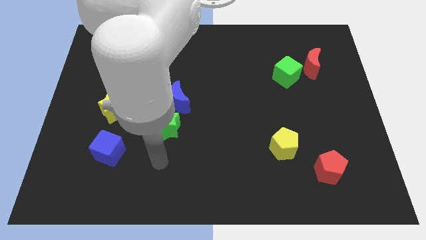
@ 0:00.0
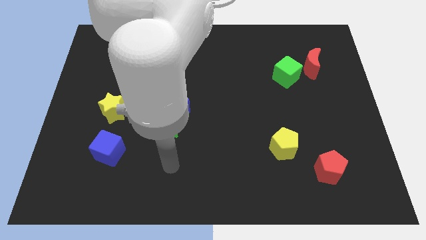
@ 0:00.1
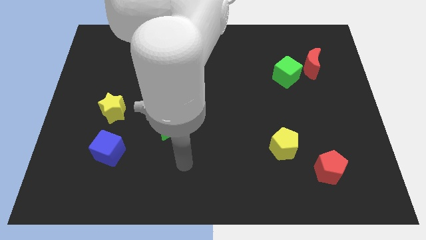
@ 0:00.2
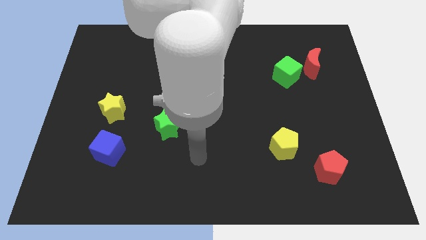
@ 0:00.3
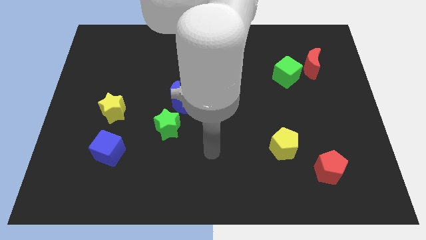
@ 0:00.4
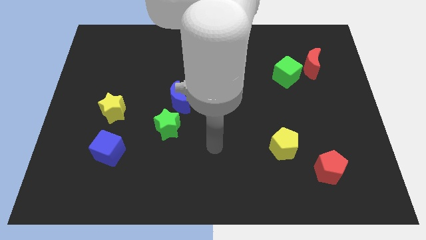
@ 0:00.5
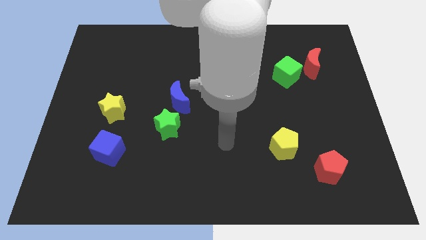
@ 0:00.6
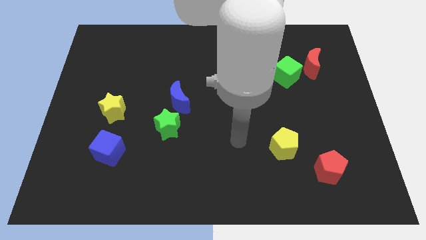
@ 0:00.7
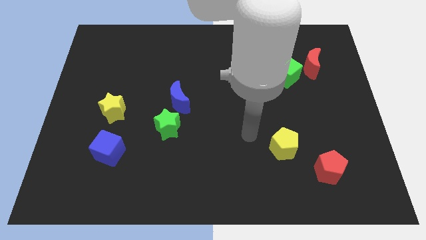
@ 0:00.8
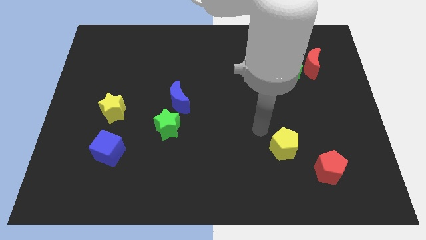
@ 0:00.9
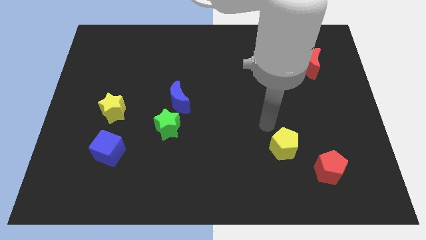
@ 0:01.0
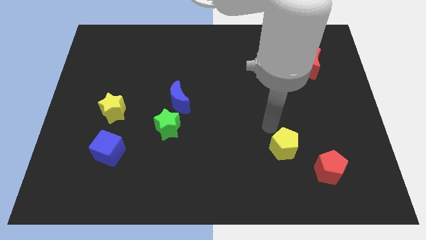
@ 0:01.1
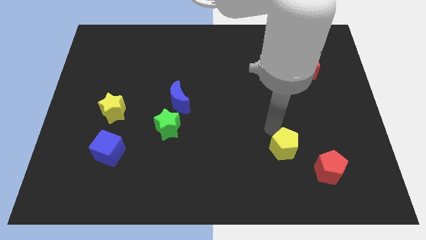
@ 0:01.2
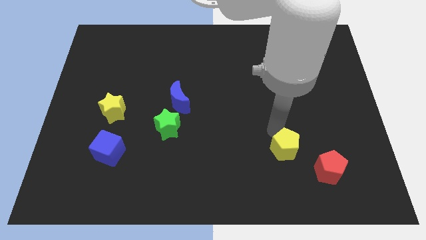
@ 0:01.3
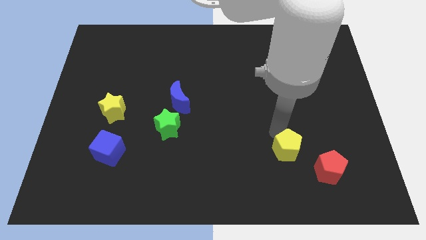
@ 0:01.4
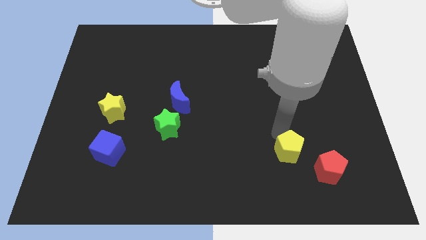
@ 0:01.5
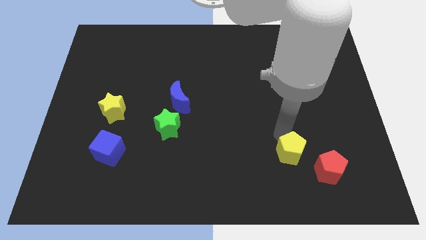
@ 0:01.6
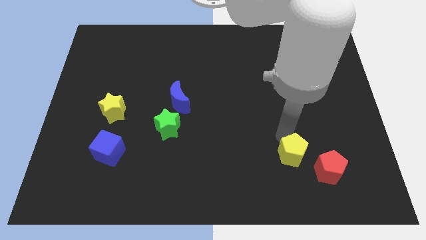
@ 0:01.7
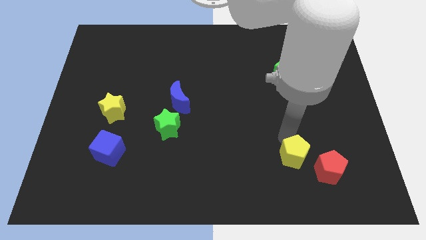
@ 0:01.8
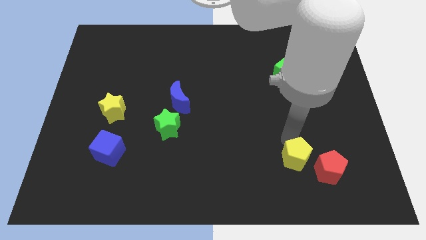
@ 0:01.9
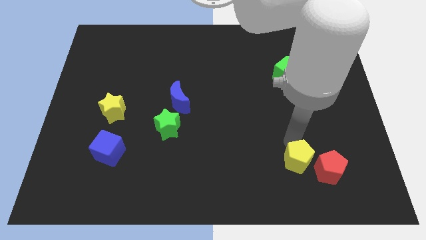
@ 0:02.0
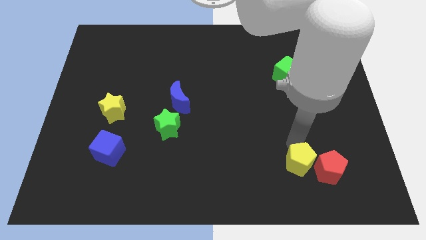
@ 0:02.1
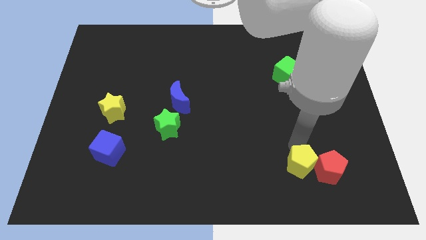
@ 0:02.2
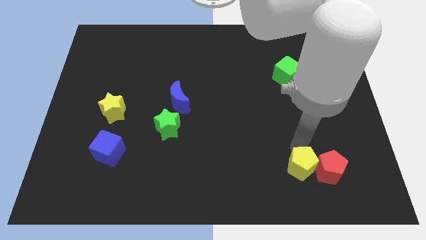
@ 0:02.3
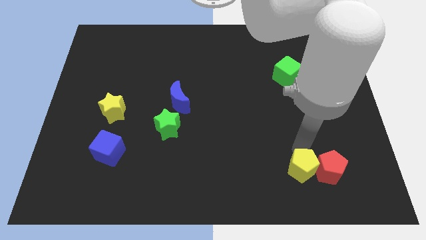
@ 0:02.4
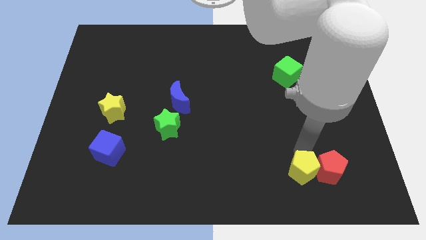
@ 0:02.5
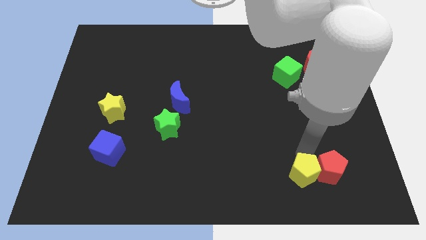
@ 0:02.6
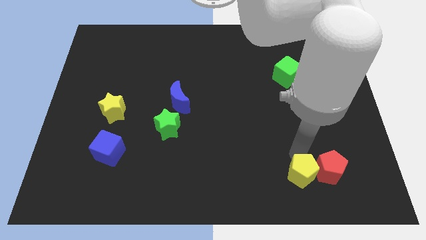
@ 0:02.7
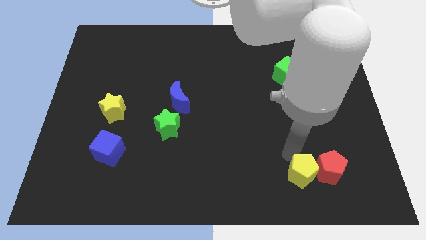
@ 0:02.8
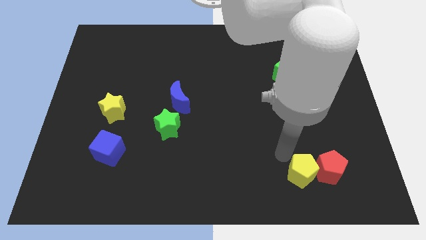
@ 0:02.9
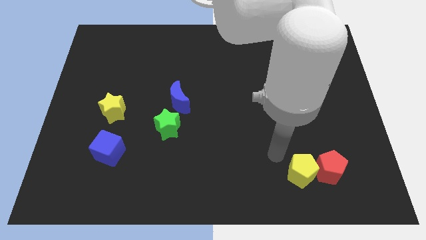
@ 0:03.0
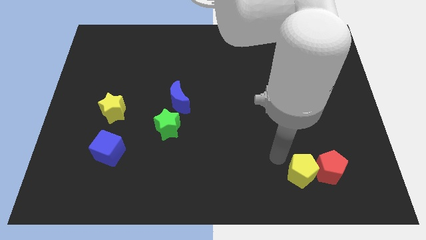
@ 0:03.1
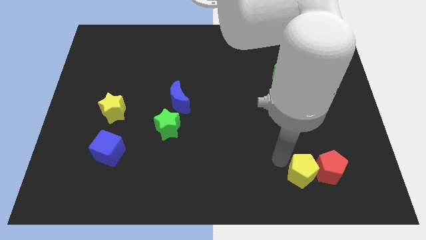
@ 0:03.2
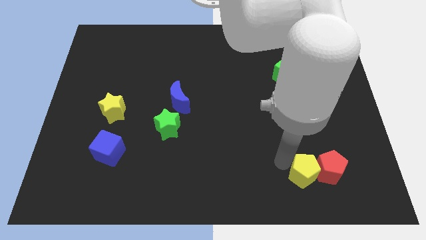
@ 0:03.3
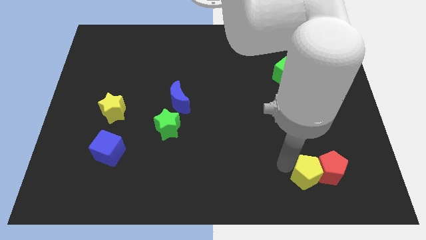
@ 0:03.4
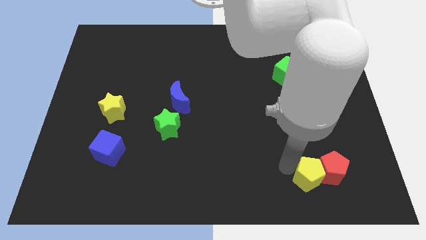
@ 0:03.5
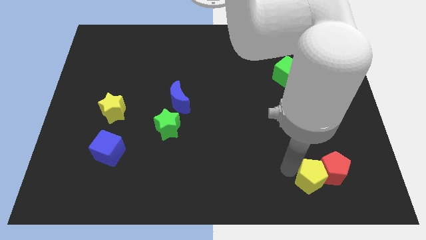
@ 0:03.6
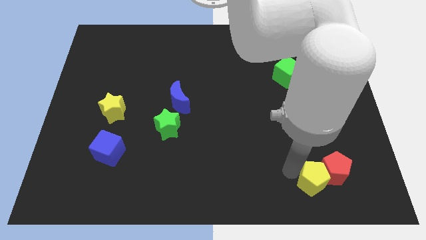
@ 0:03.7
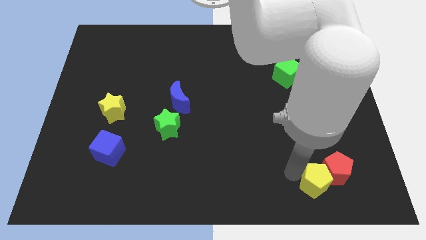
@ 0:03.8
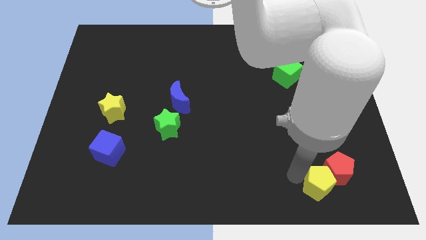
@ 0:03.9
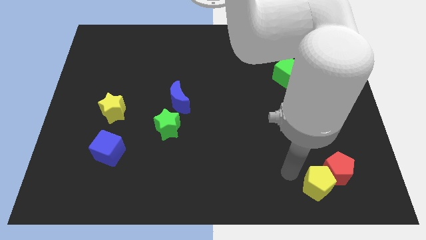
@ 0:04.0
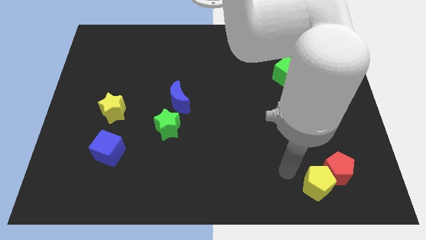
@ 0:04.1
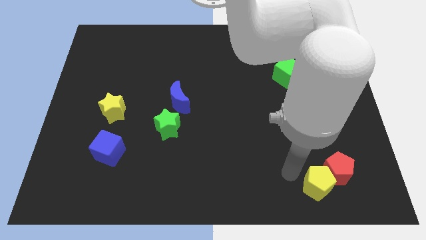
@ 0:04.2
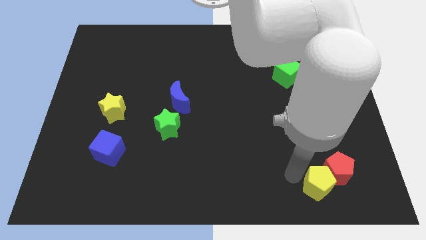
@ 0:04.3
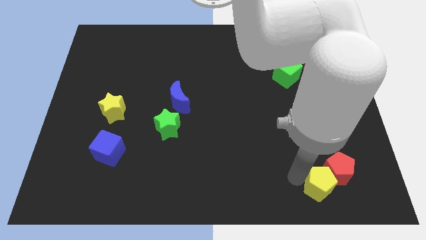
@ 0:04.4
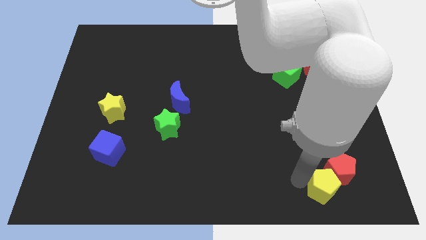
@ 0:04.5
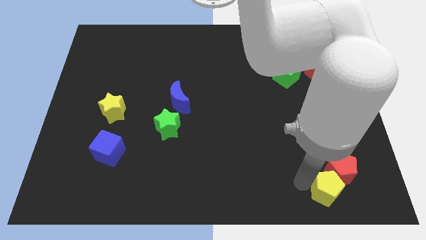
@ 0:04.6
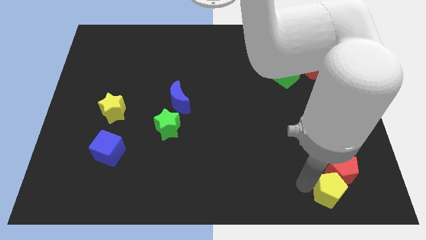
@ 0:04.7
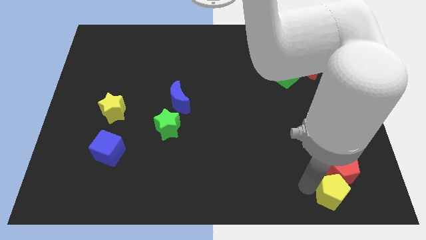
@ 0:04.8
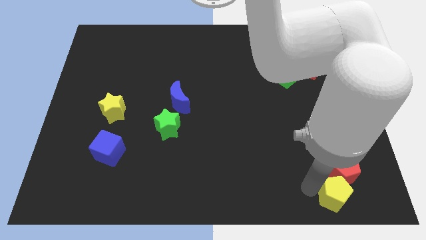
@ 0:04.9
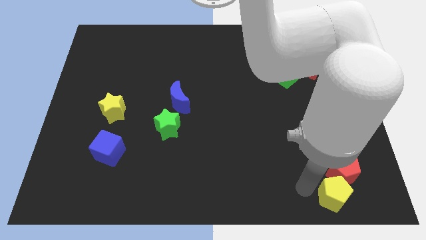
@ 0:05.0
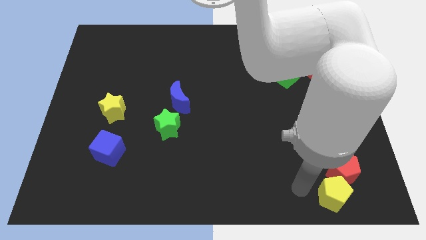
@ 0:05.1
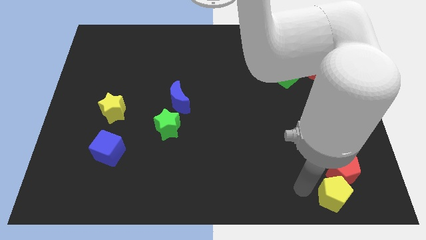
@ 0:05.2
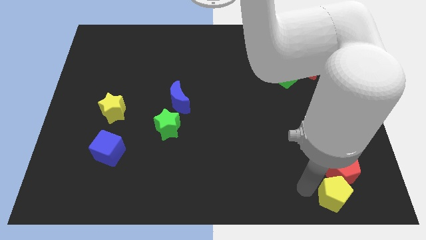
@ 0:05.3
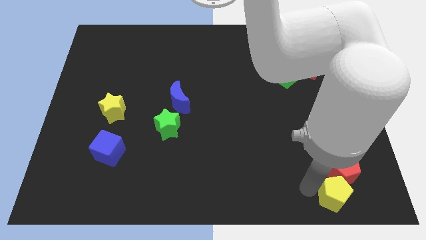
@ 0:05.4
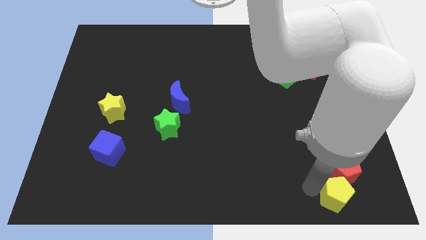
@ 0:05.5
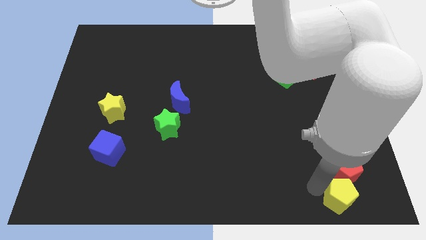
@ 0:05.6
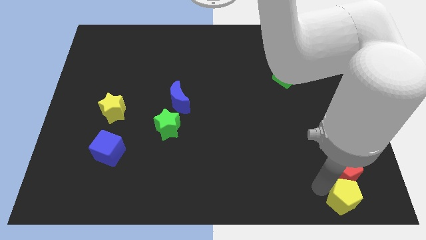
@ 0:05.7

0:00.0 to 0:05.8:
slide the yellow pentagon to the bottom right corner

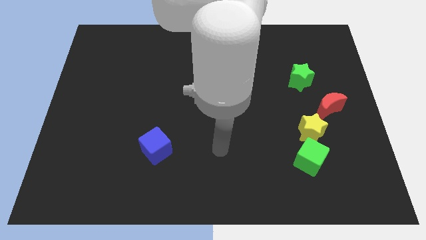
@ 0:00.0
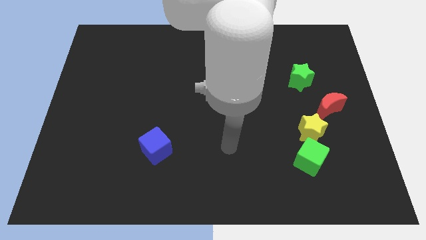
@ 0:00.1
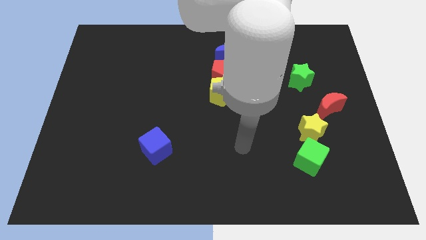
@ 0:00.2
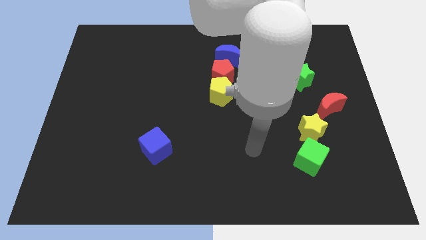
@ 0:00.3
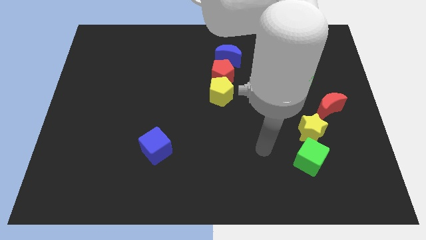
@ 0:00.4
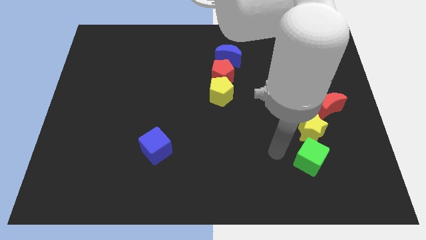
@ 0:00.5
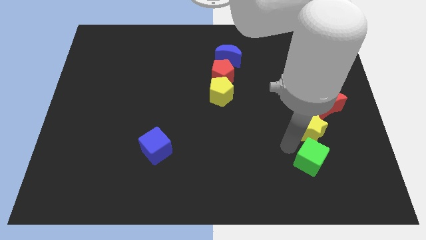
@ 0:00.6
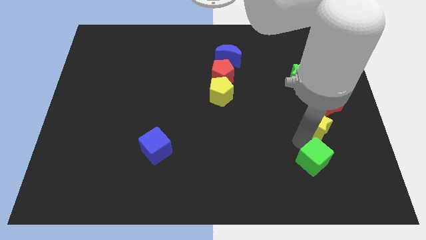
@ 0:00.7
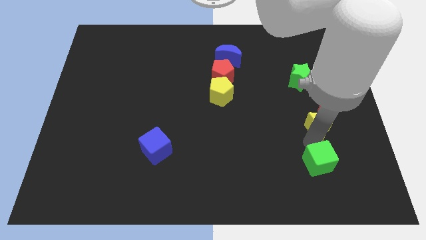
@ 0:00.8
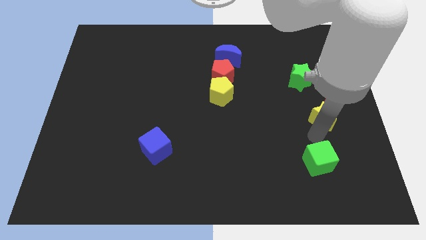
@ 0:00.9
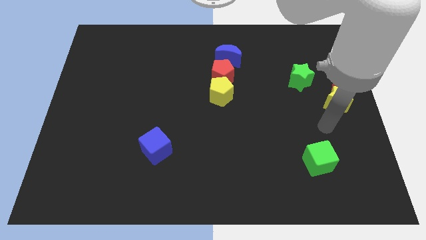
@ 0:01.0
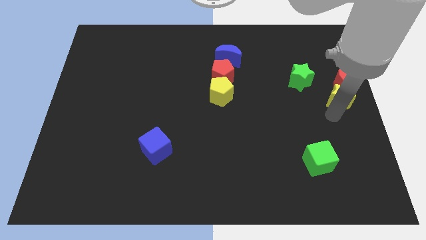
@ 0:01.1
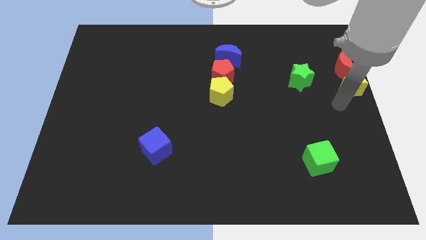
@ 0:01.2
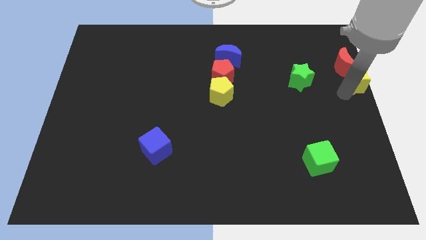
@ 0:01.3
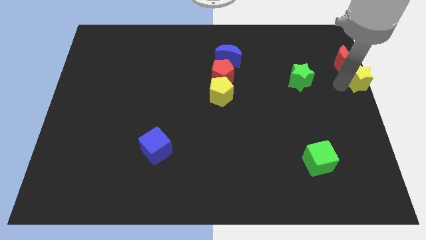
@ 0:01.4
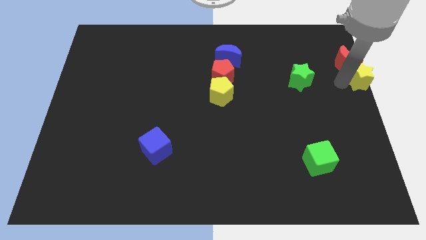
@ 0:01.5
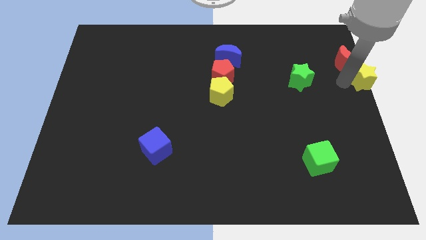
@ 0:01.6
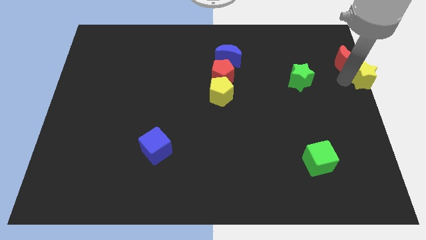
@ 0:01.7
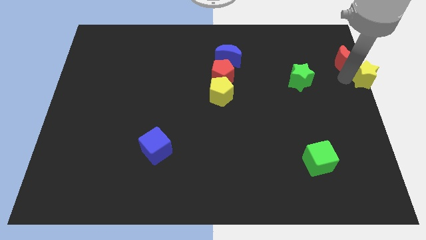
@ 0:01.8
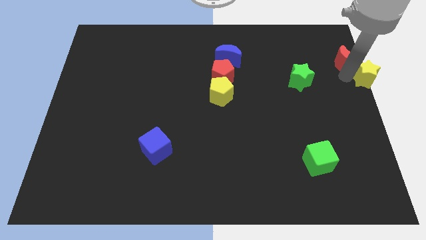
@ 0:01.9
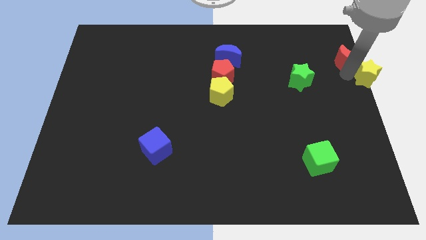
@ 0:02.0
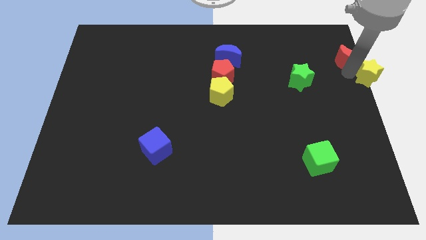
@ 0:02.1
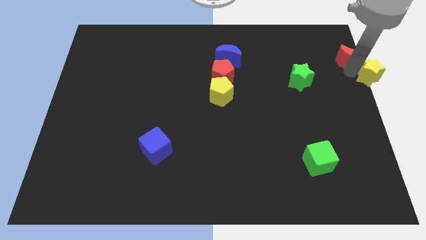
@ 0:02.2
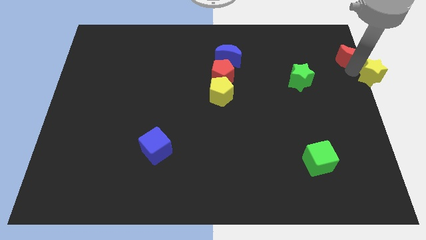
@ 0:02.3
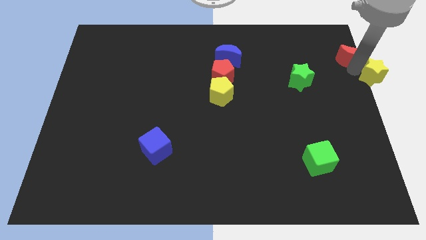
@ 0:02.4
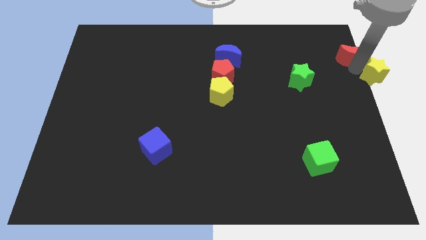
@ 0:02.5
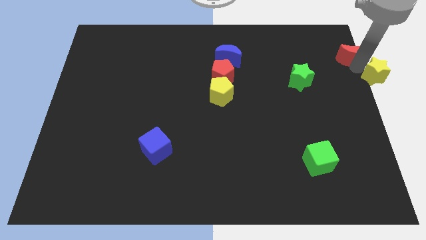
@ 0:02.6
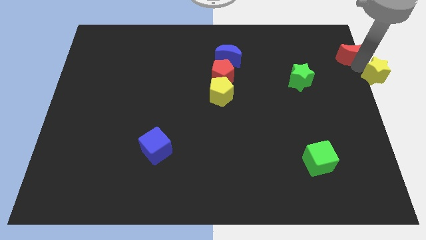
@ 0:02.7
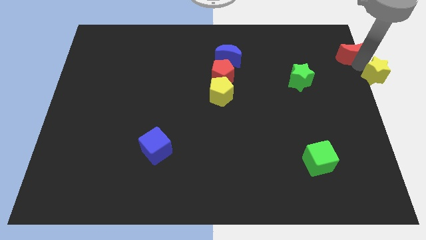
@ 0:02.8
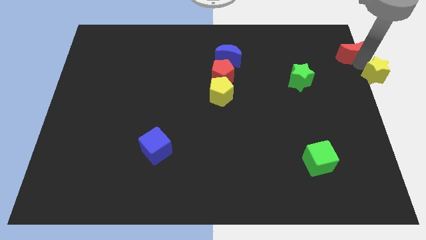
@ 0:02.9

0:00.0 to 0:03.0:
push the red moon to the top right of the board
